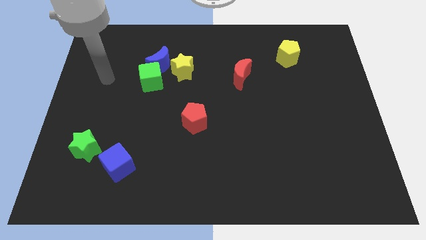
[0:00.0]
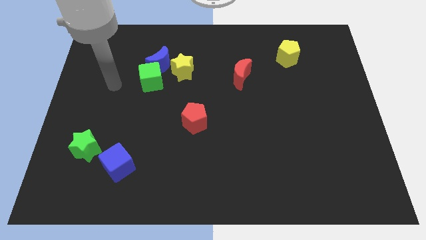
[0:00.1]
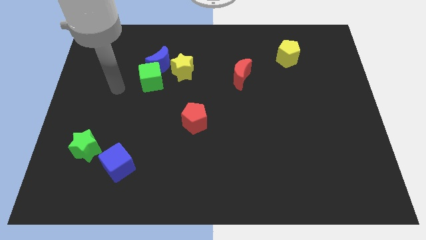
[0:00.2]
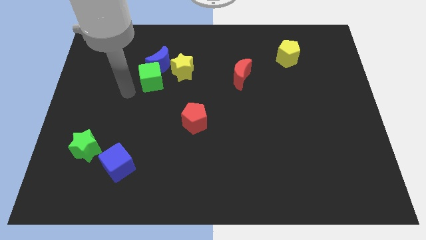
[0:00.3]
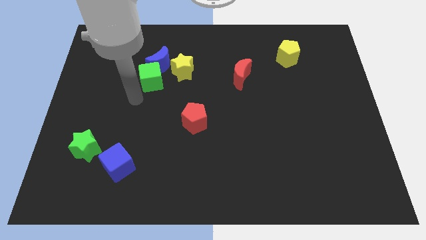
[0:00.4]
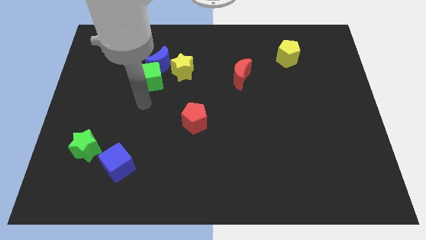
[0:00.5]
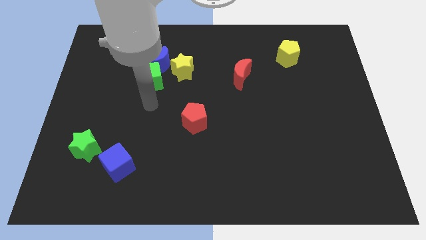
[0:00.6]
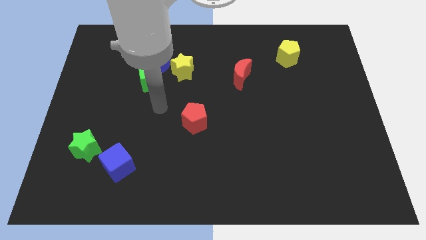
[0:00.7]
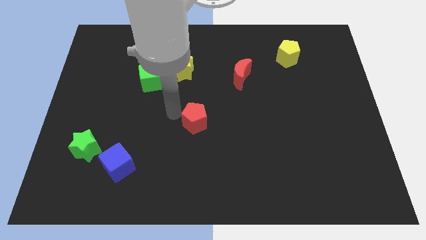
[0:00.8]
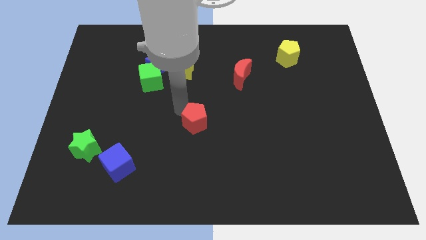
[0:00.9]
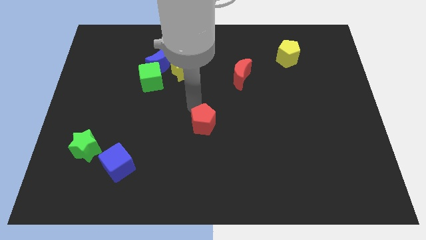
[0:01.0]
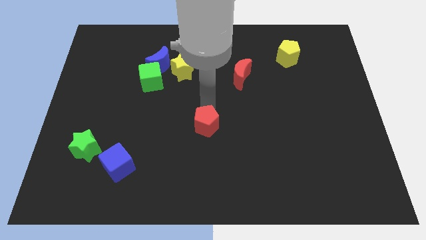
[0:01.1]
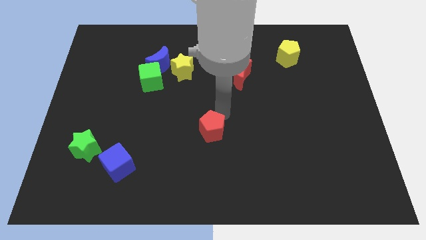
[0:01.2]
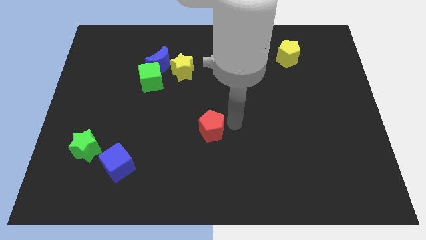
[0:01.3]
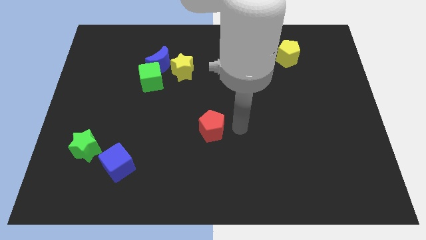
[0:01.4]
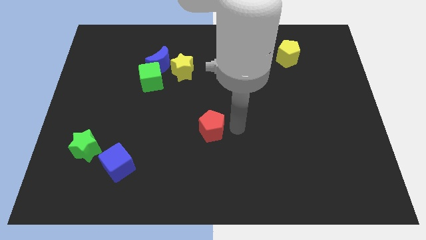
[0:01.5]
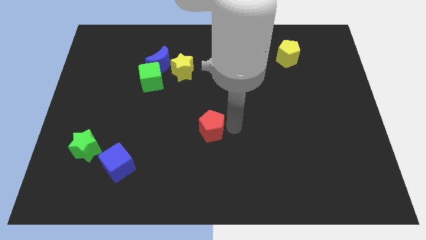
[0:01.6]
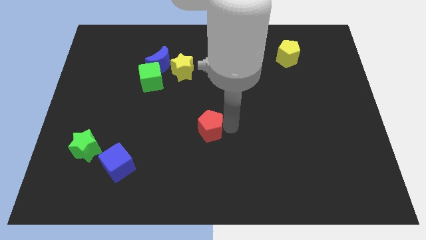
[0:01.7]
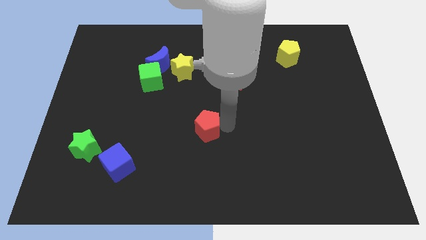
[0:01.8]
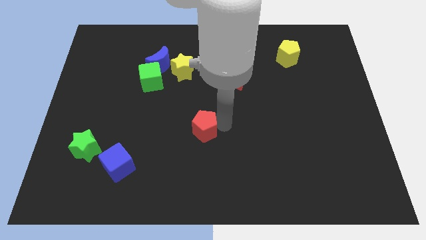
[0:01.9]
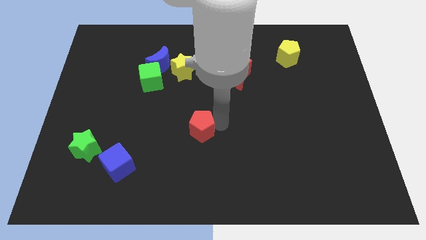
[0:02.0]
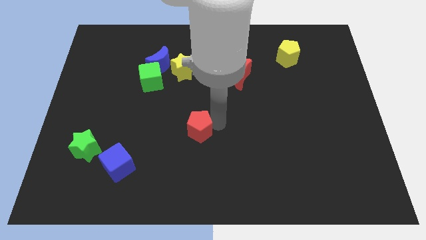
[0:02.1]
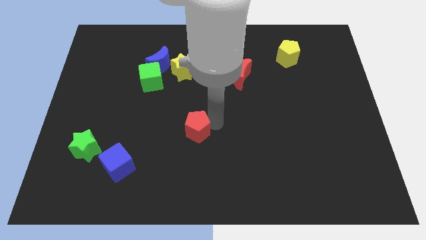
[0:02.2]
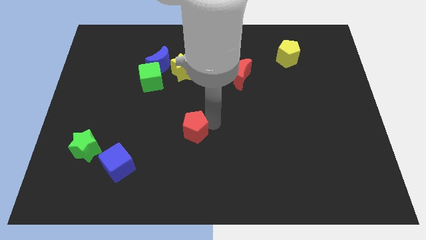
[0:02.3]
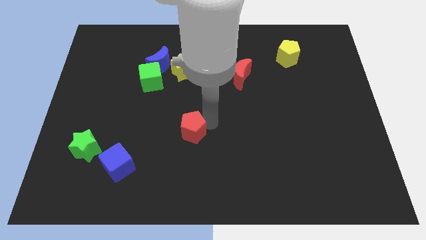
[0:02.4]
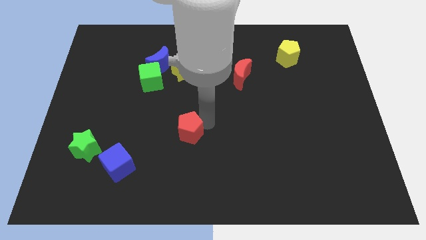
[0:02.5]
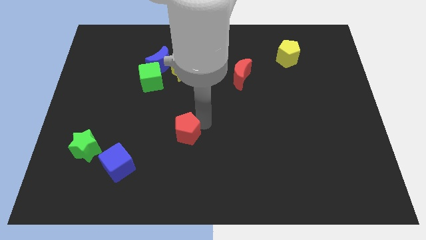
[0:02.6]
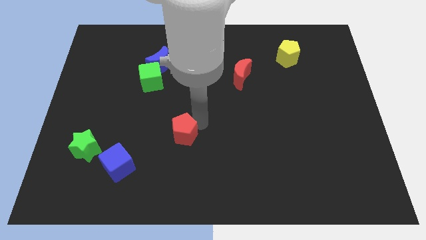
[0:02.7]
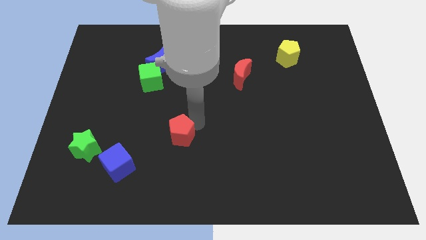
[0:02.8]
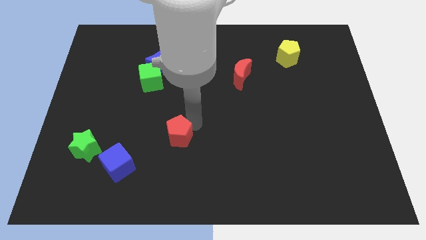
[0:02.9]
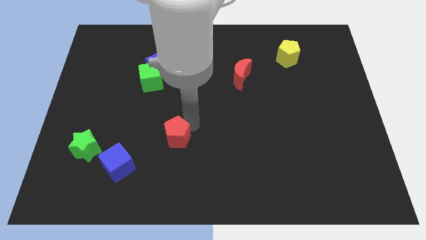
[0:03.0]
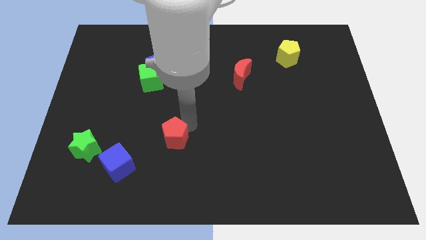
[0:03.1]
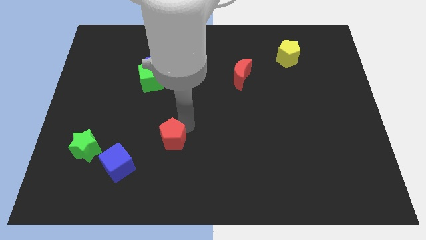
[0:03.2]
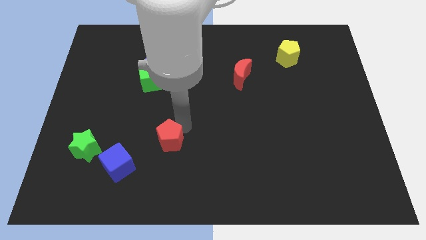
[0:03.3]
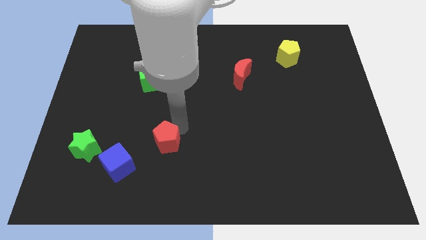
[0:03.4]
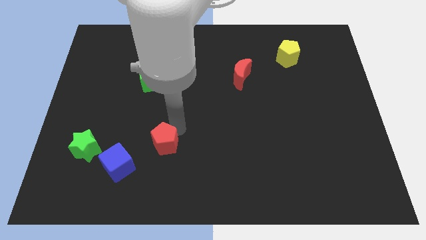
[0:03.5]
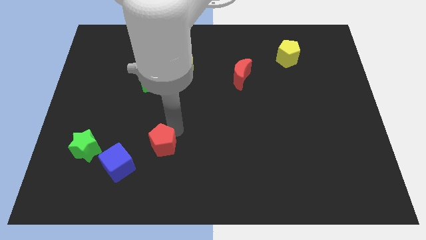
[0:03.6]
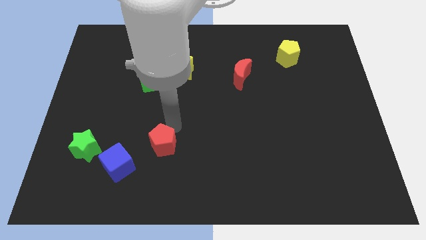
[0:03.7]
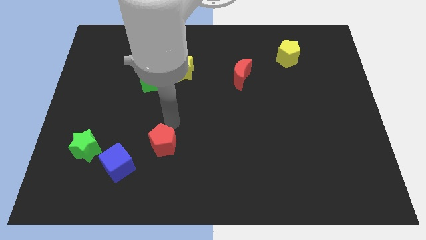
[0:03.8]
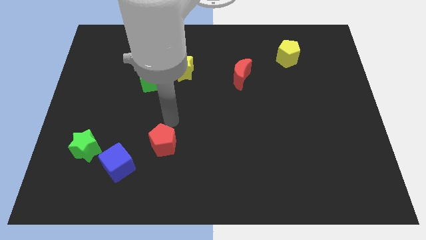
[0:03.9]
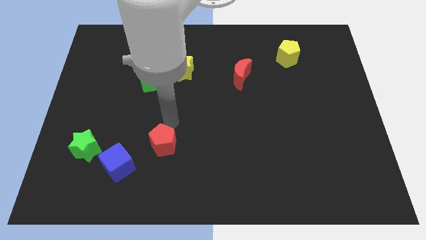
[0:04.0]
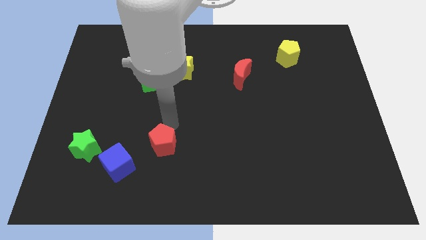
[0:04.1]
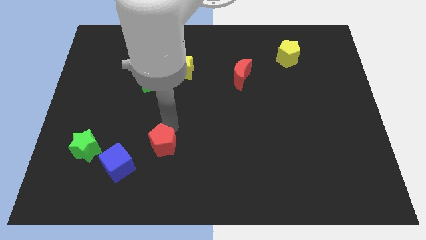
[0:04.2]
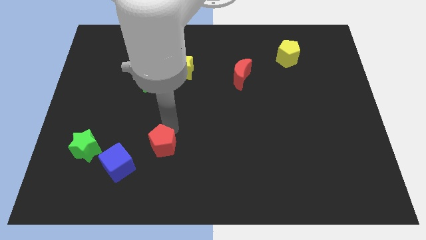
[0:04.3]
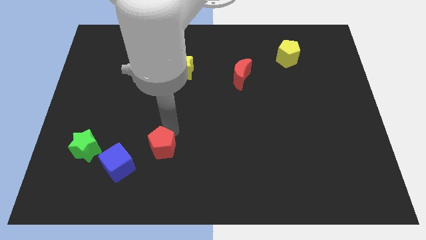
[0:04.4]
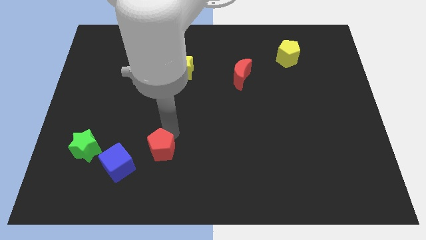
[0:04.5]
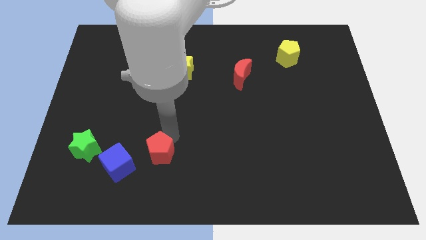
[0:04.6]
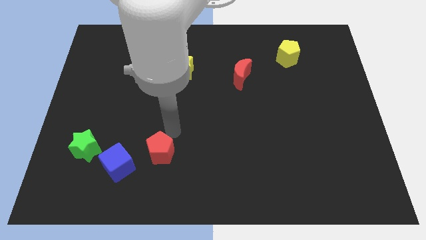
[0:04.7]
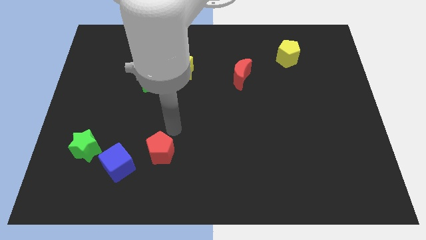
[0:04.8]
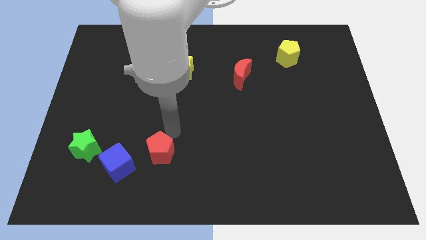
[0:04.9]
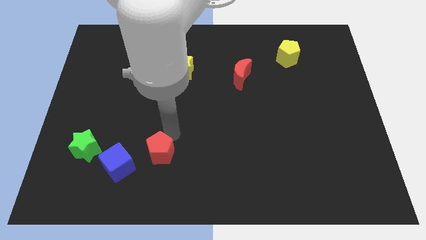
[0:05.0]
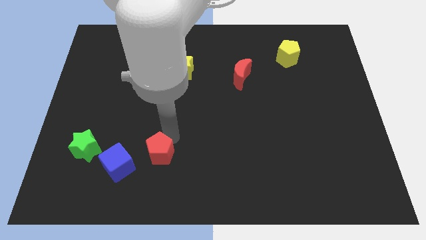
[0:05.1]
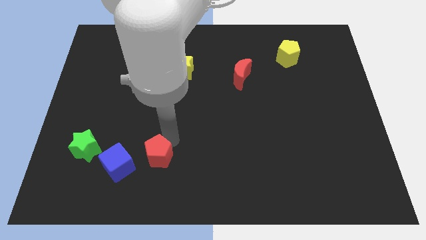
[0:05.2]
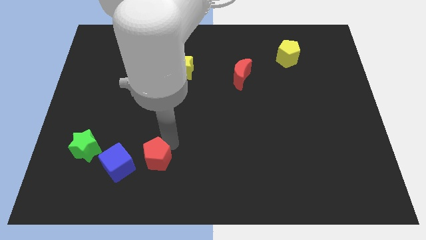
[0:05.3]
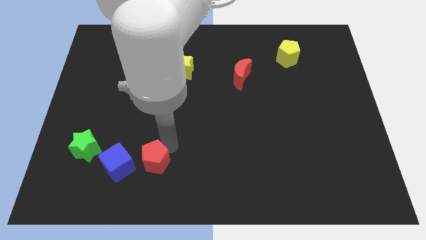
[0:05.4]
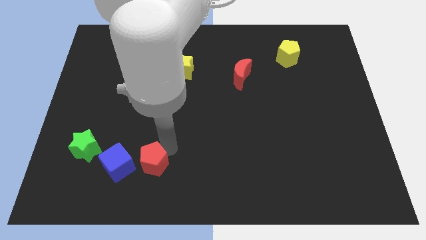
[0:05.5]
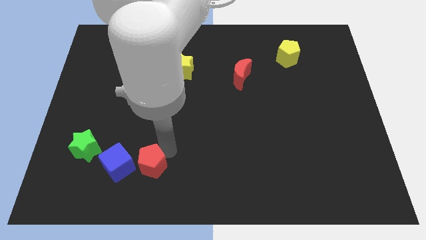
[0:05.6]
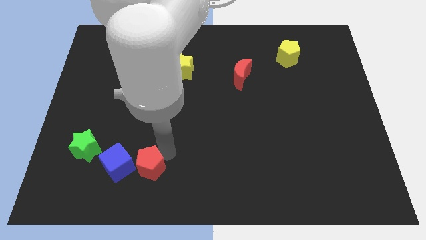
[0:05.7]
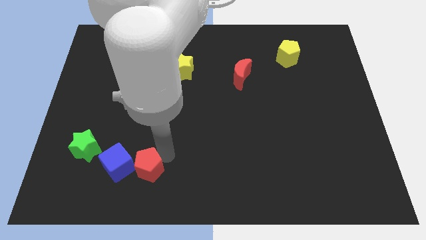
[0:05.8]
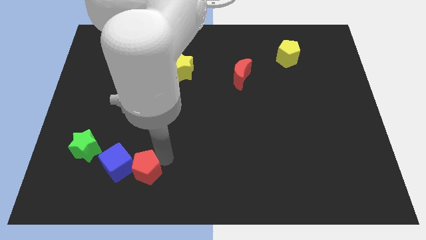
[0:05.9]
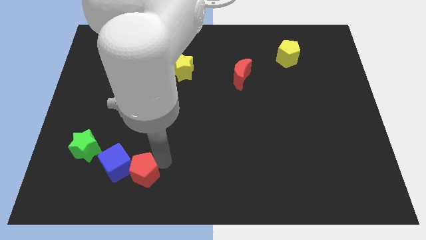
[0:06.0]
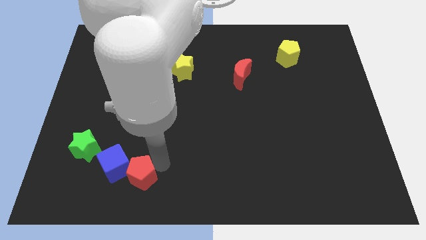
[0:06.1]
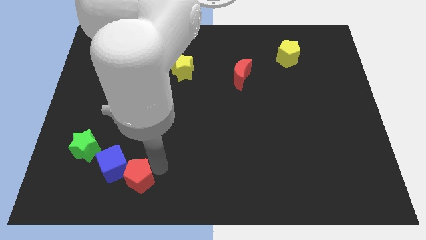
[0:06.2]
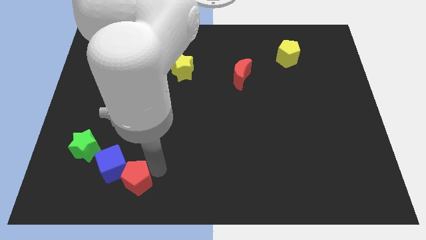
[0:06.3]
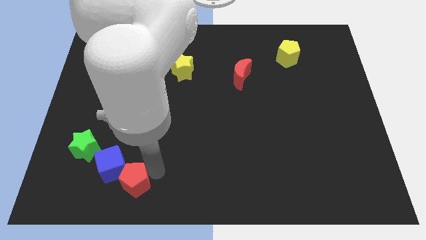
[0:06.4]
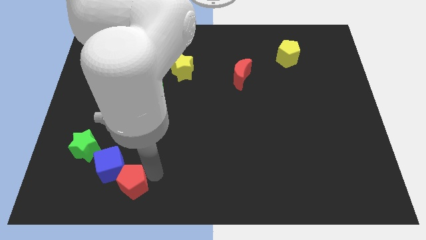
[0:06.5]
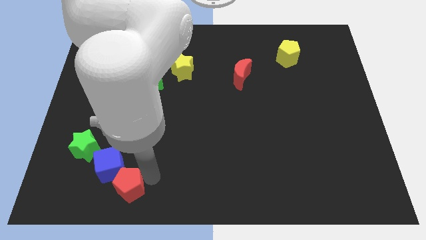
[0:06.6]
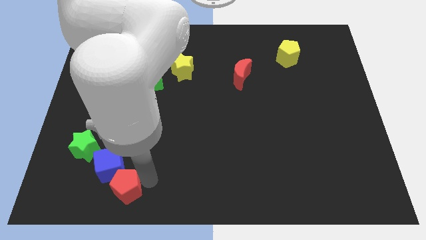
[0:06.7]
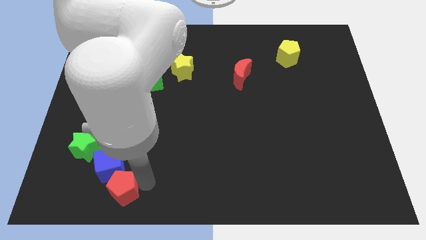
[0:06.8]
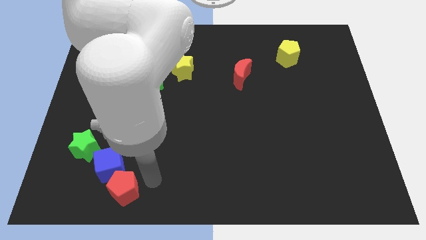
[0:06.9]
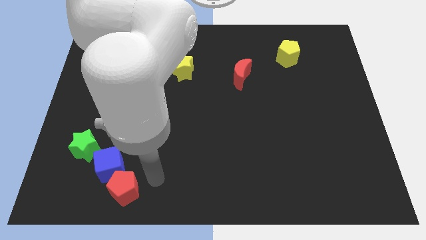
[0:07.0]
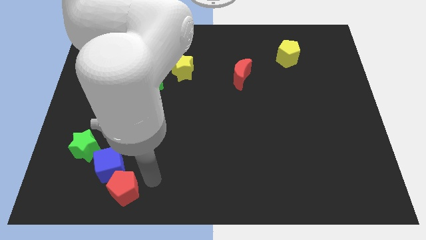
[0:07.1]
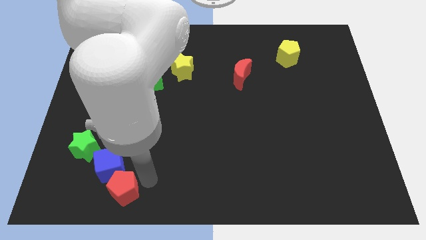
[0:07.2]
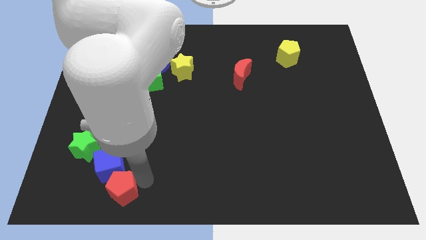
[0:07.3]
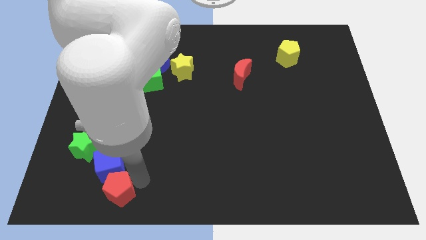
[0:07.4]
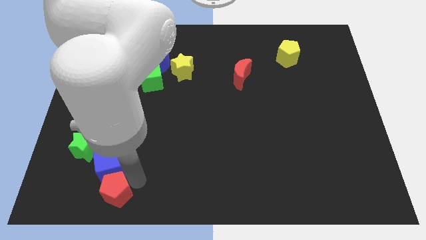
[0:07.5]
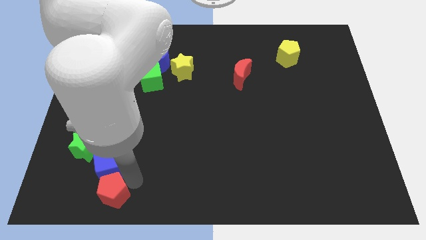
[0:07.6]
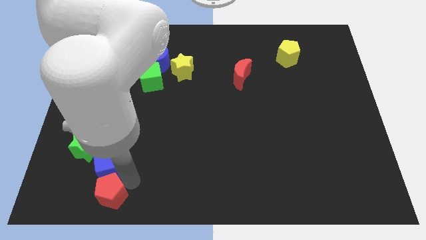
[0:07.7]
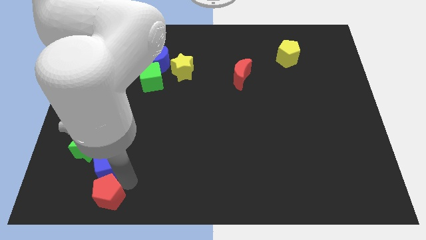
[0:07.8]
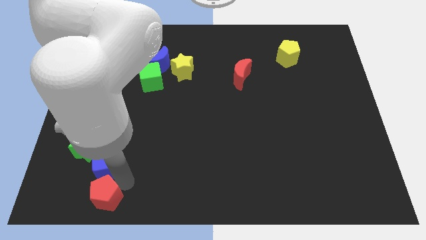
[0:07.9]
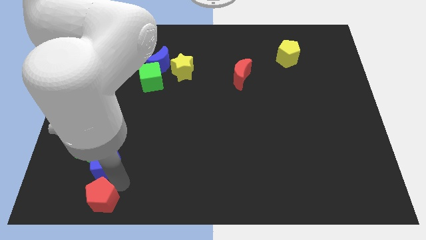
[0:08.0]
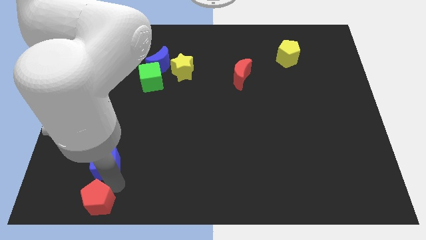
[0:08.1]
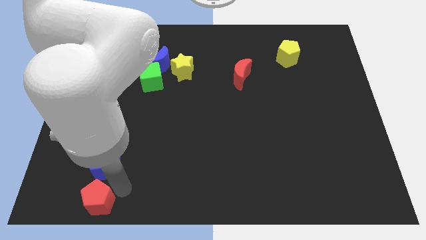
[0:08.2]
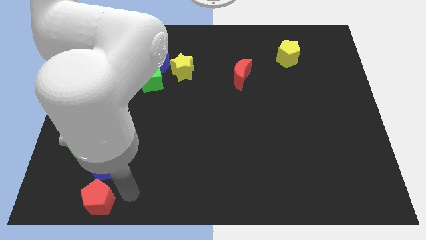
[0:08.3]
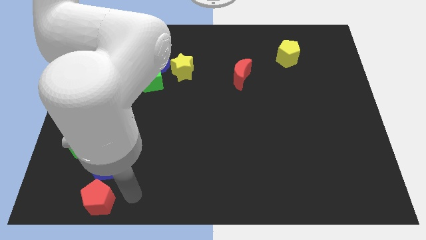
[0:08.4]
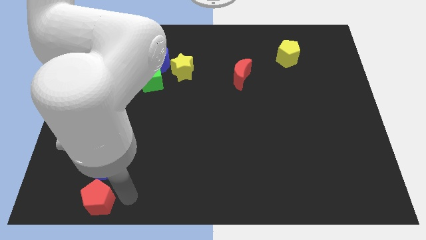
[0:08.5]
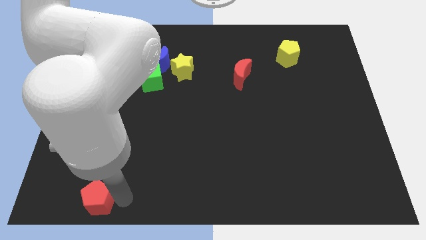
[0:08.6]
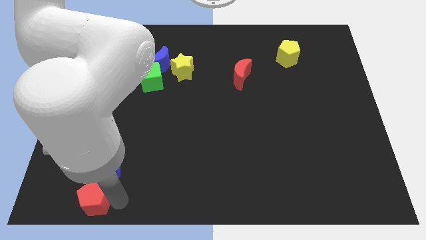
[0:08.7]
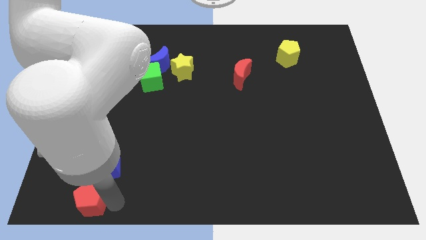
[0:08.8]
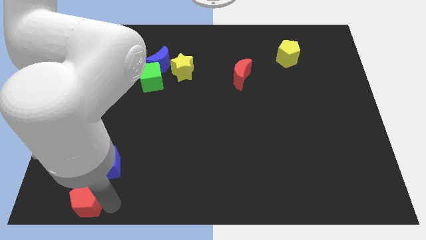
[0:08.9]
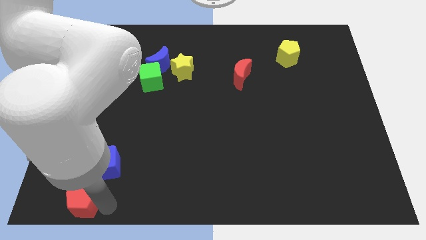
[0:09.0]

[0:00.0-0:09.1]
push the red pentagon to the bottom left
